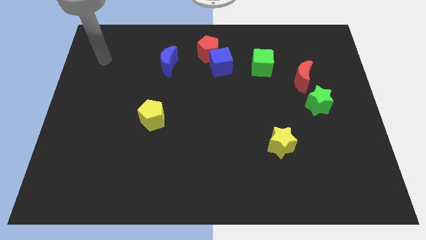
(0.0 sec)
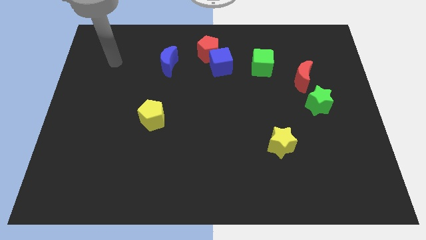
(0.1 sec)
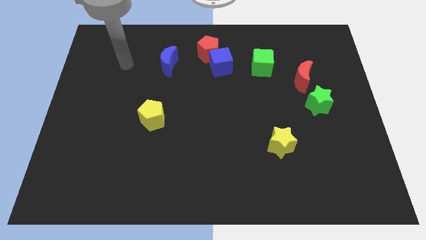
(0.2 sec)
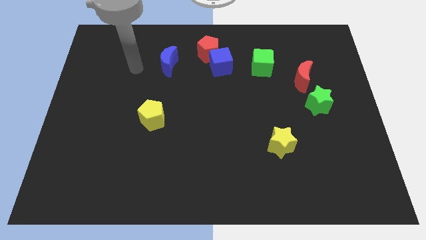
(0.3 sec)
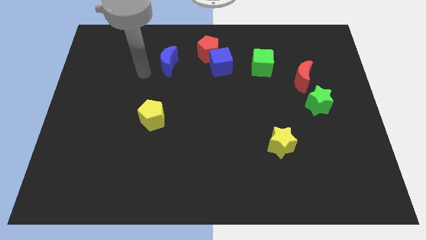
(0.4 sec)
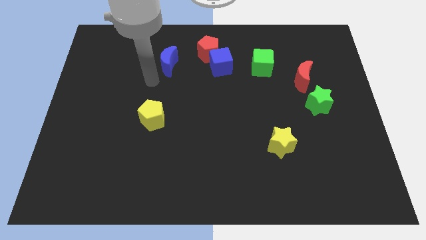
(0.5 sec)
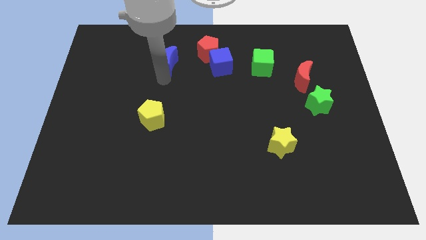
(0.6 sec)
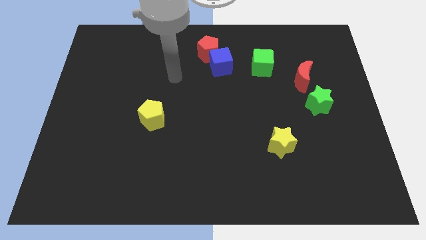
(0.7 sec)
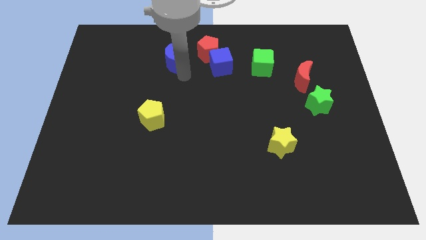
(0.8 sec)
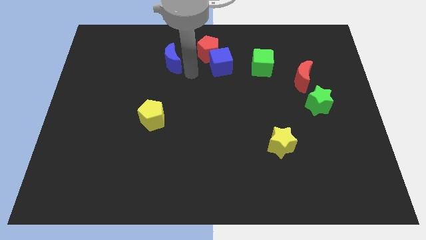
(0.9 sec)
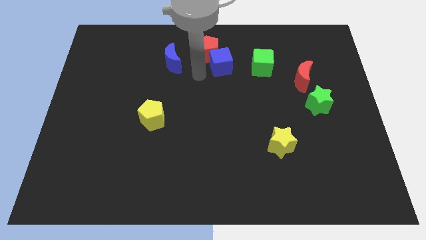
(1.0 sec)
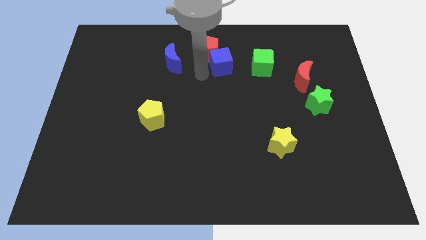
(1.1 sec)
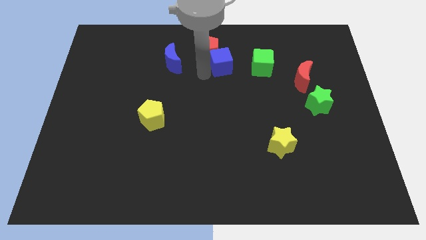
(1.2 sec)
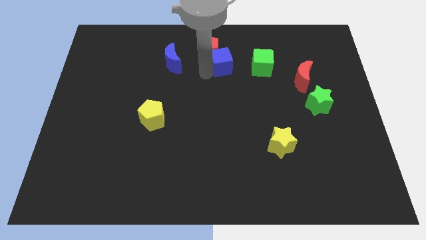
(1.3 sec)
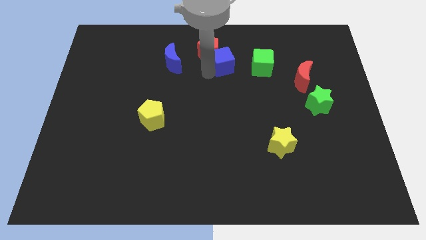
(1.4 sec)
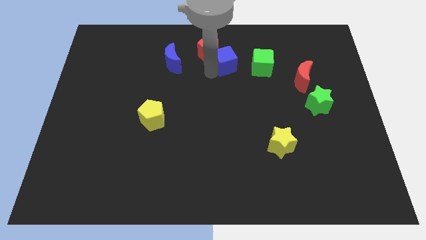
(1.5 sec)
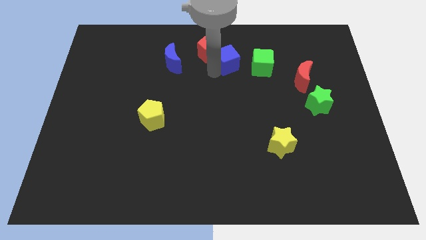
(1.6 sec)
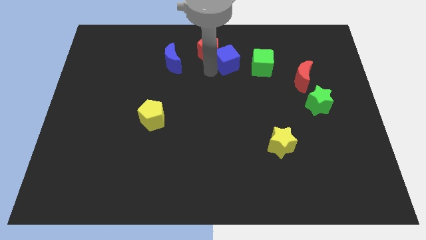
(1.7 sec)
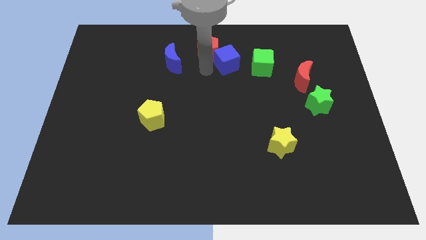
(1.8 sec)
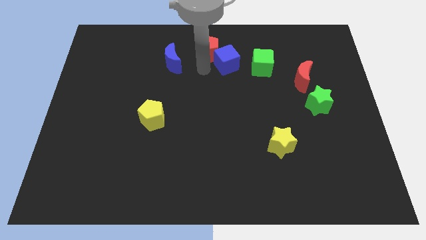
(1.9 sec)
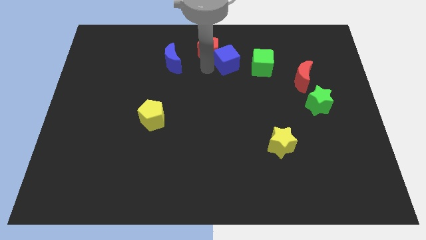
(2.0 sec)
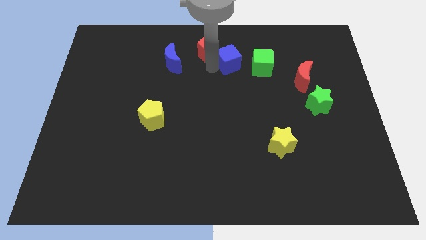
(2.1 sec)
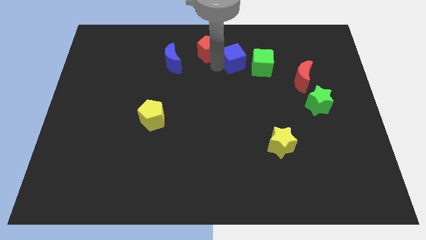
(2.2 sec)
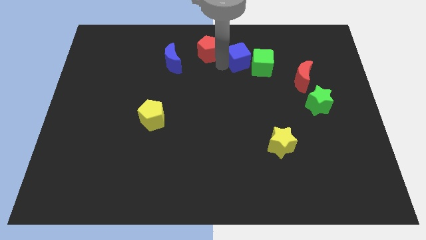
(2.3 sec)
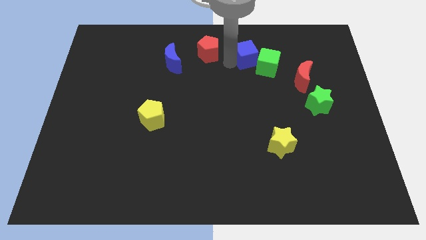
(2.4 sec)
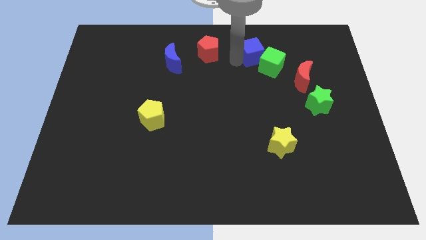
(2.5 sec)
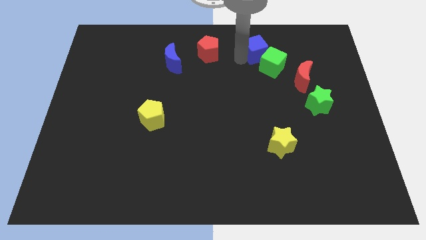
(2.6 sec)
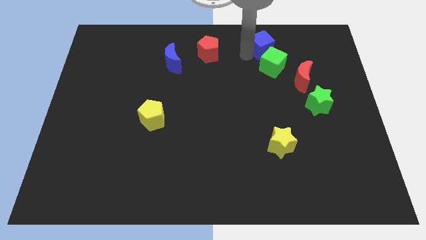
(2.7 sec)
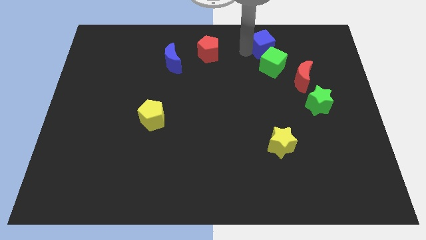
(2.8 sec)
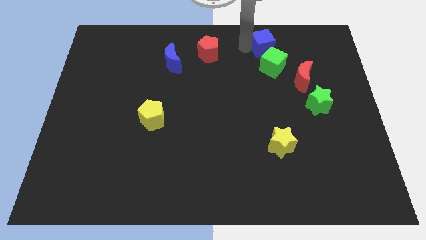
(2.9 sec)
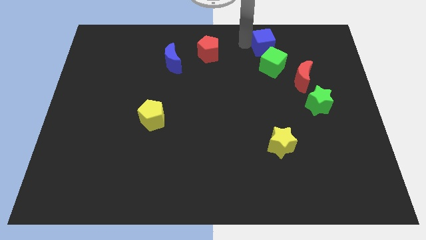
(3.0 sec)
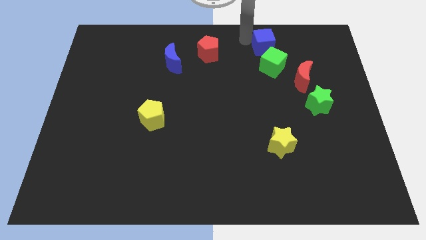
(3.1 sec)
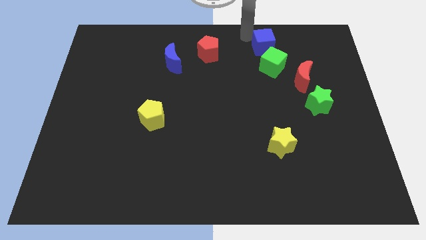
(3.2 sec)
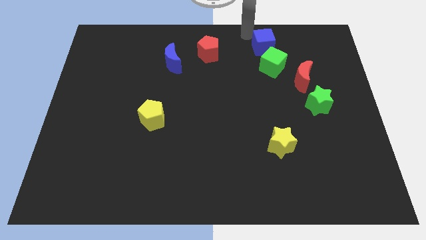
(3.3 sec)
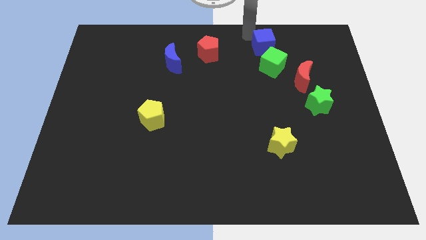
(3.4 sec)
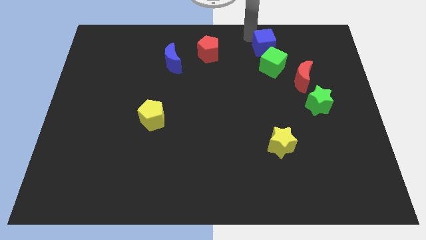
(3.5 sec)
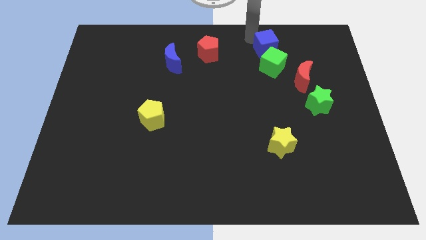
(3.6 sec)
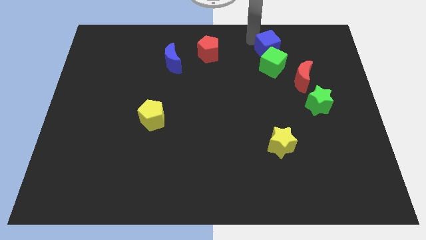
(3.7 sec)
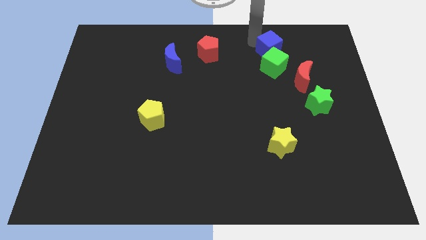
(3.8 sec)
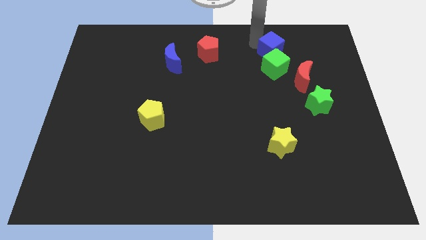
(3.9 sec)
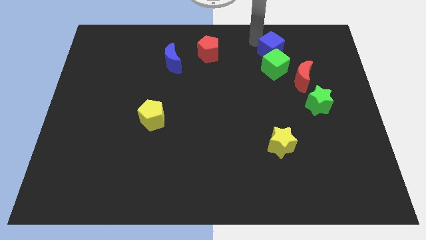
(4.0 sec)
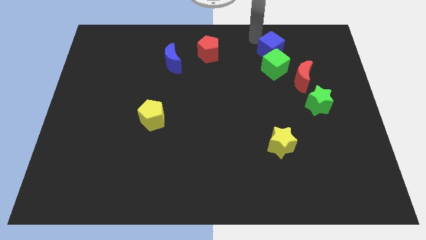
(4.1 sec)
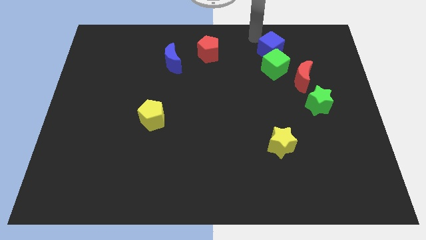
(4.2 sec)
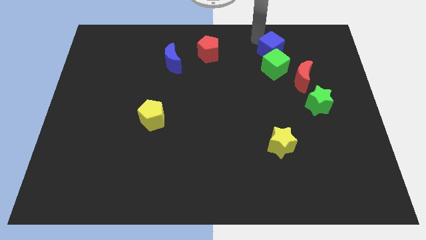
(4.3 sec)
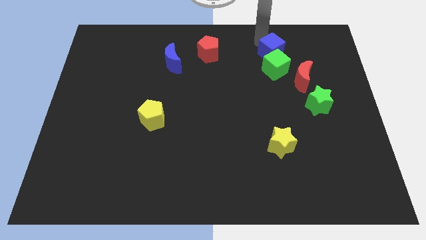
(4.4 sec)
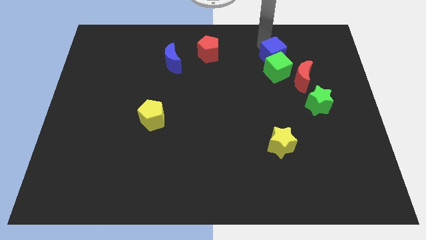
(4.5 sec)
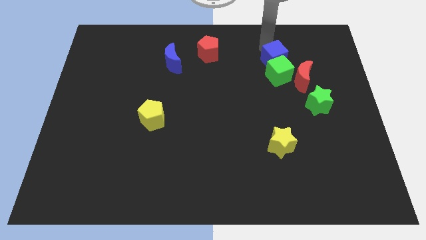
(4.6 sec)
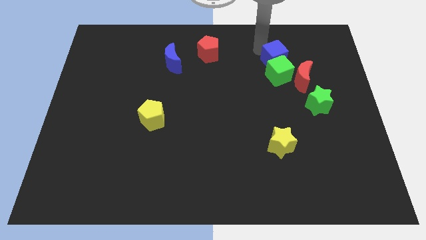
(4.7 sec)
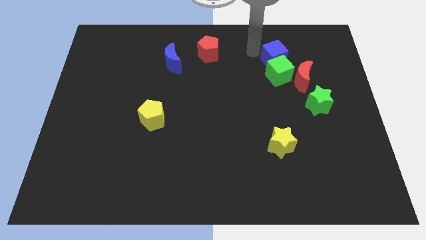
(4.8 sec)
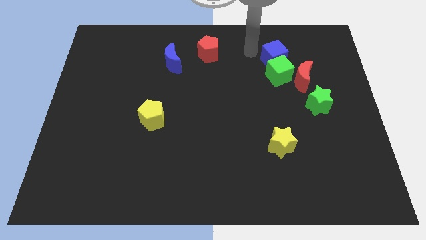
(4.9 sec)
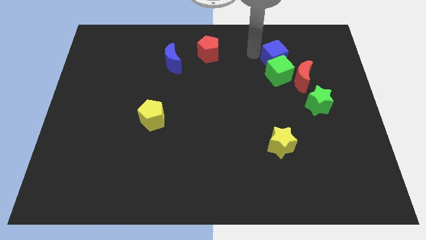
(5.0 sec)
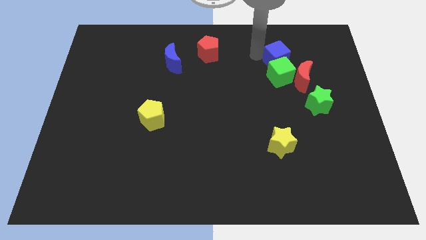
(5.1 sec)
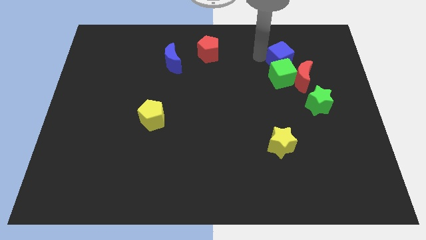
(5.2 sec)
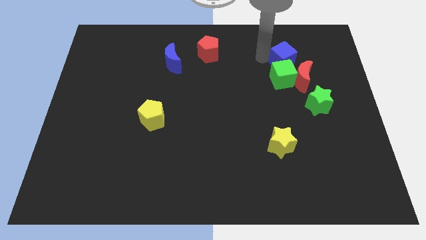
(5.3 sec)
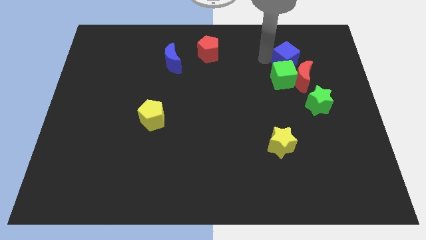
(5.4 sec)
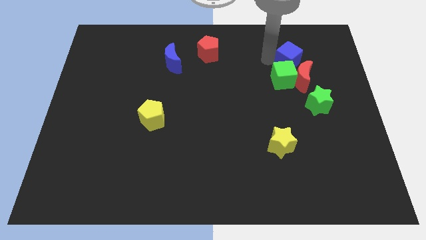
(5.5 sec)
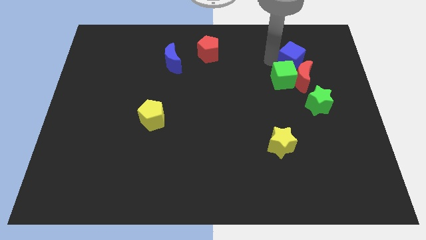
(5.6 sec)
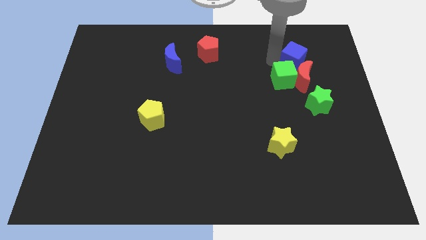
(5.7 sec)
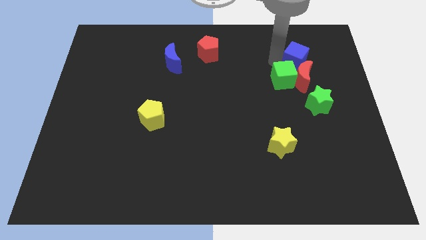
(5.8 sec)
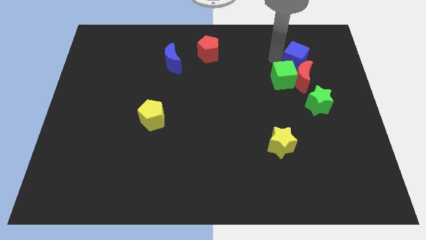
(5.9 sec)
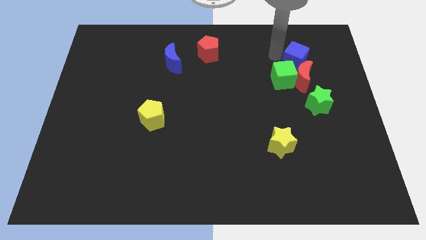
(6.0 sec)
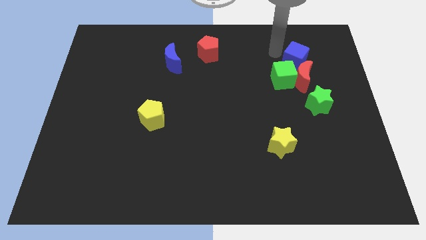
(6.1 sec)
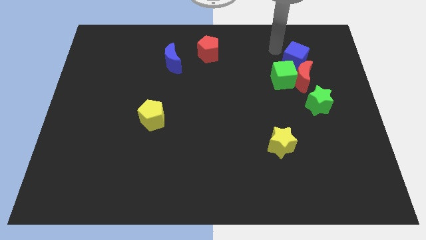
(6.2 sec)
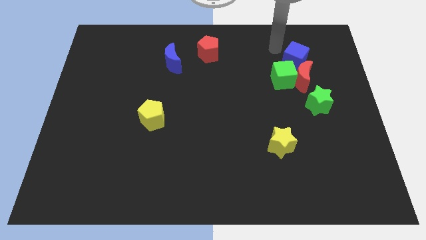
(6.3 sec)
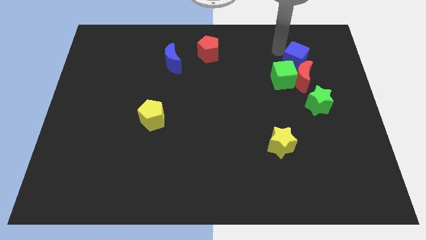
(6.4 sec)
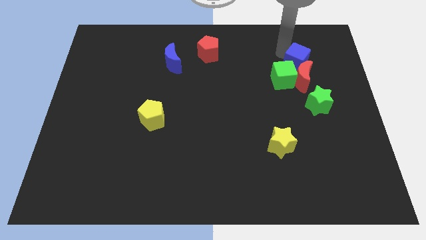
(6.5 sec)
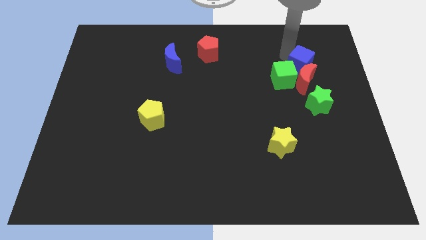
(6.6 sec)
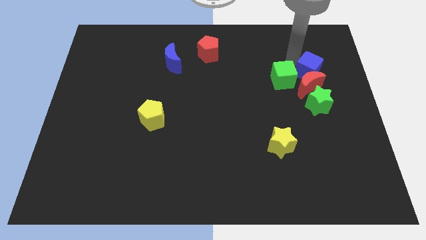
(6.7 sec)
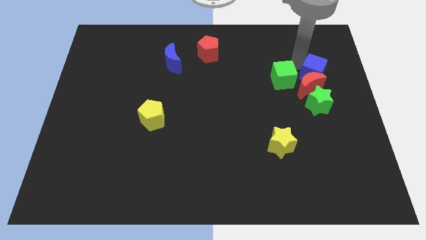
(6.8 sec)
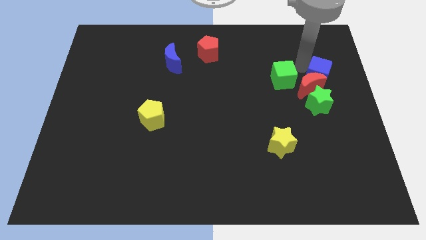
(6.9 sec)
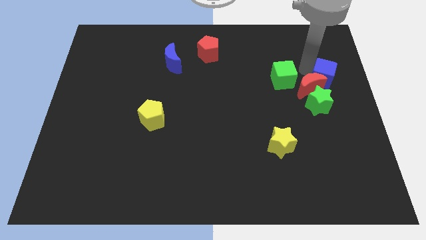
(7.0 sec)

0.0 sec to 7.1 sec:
move the blue cube to the right side of the board

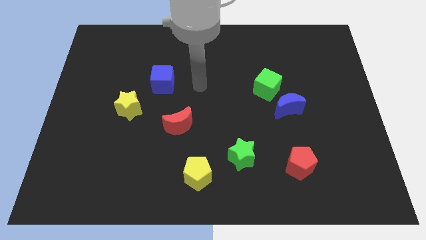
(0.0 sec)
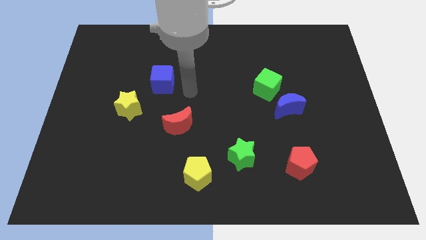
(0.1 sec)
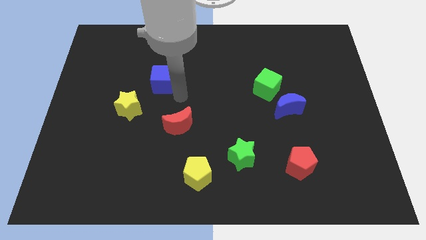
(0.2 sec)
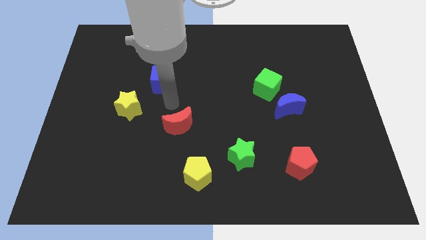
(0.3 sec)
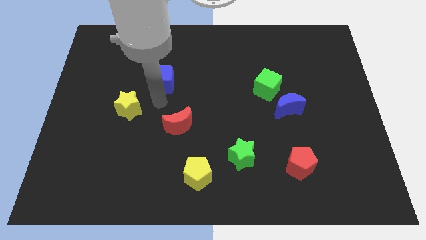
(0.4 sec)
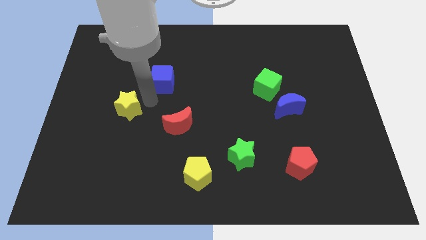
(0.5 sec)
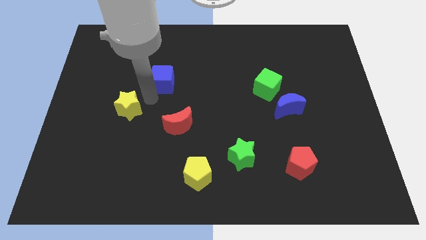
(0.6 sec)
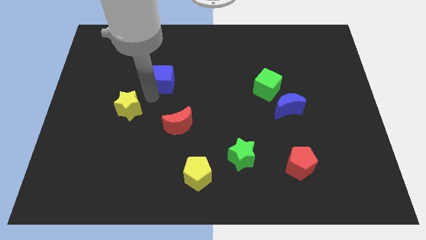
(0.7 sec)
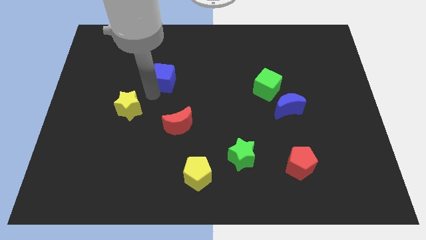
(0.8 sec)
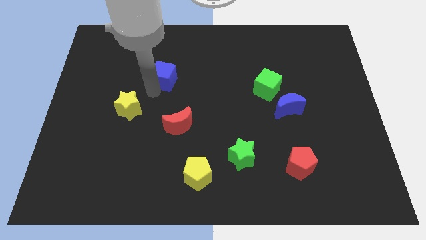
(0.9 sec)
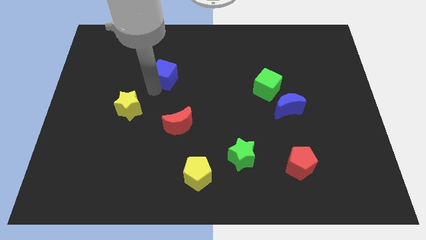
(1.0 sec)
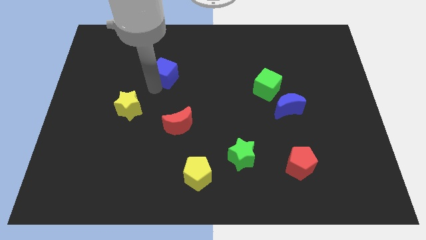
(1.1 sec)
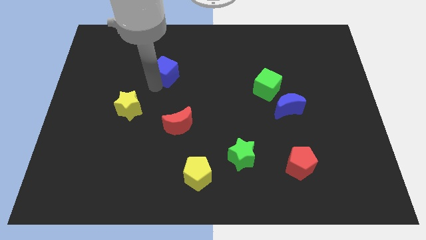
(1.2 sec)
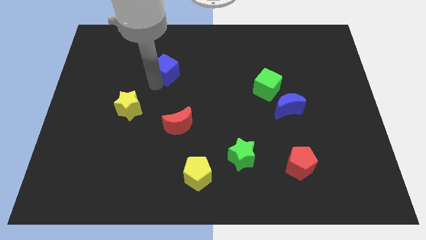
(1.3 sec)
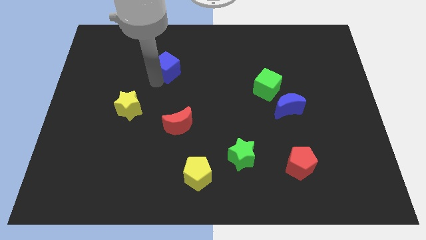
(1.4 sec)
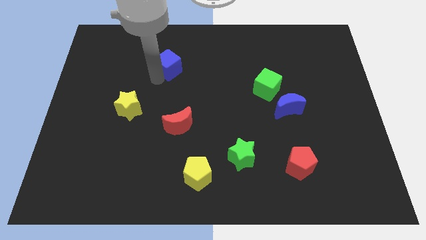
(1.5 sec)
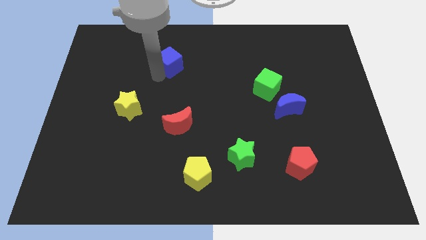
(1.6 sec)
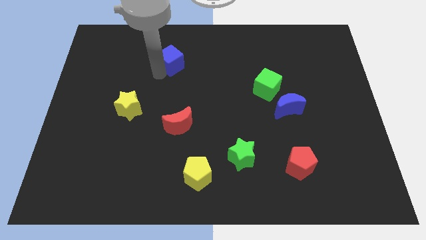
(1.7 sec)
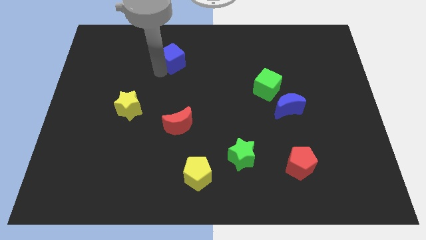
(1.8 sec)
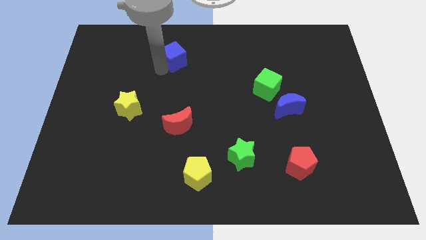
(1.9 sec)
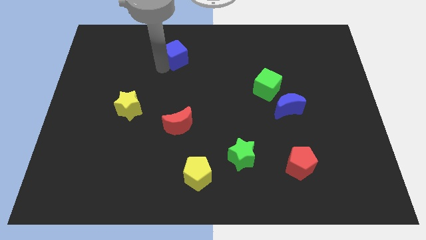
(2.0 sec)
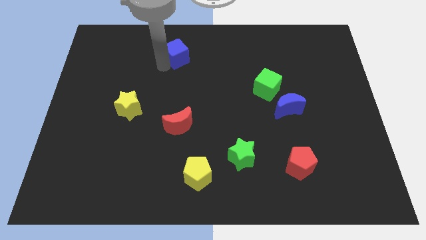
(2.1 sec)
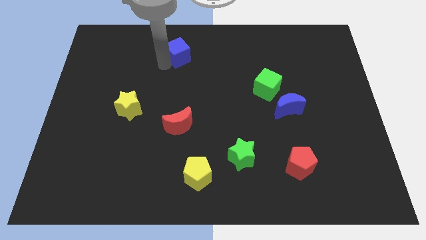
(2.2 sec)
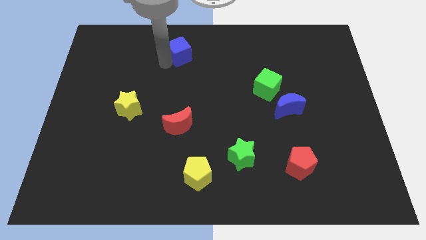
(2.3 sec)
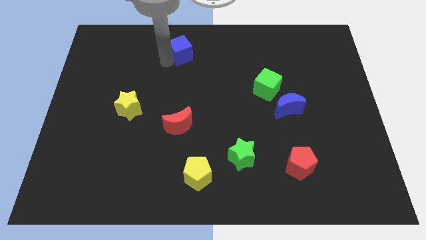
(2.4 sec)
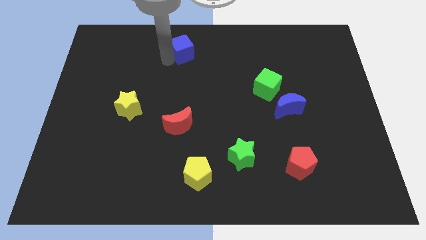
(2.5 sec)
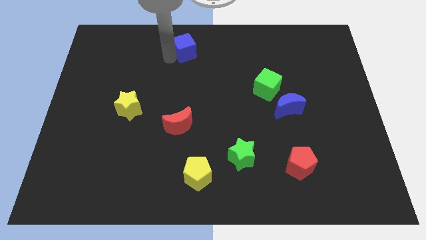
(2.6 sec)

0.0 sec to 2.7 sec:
move the blue cube to the top side
